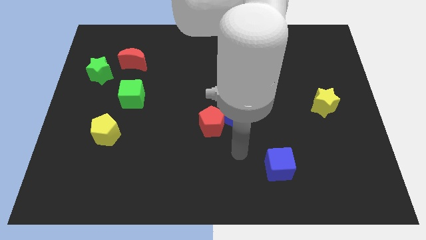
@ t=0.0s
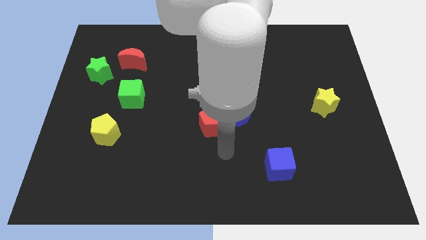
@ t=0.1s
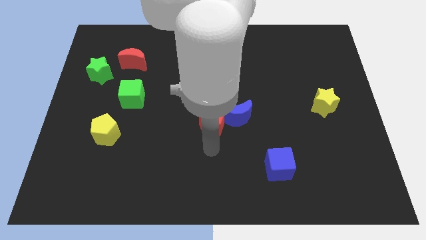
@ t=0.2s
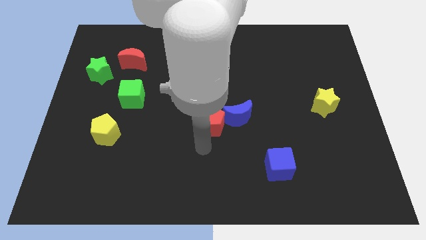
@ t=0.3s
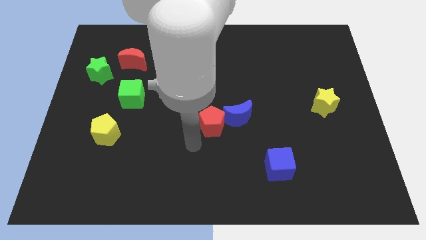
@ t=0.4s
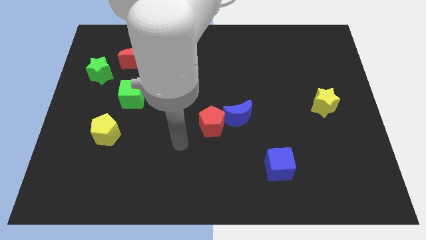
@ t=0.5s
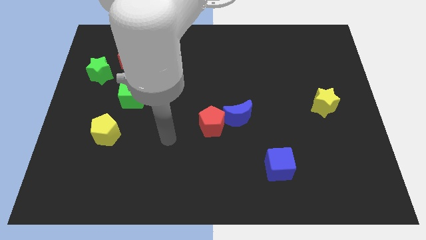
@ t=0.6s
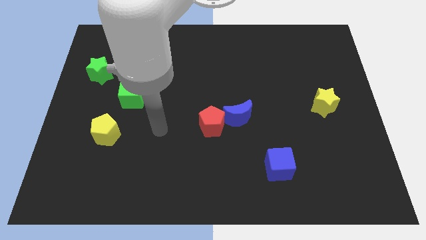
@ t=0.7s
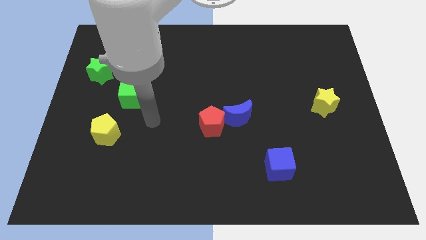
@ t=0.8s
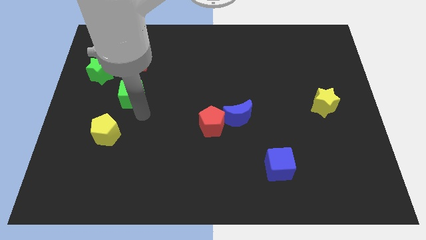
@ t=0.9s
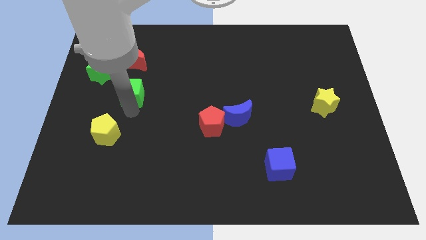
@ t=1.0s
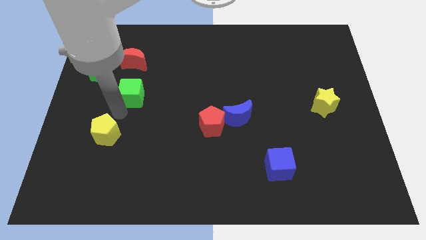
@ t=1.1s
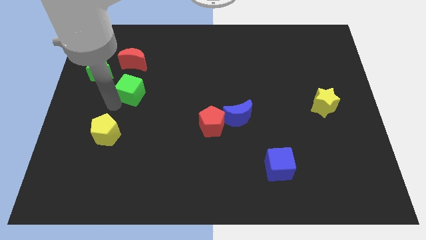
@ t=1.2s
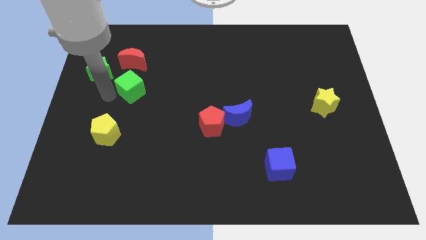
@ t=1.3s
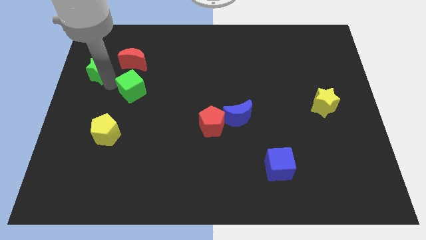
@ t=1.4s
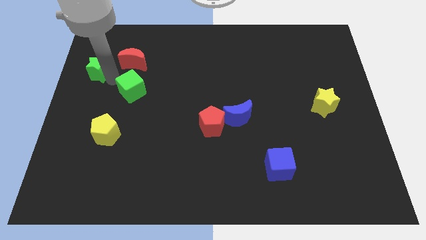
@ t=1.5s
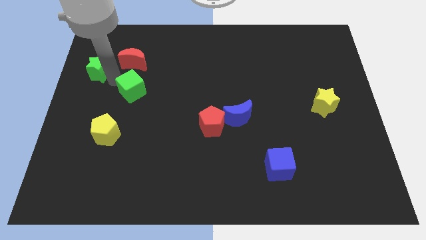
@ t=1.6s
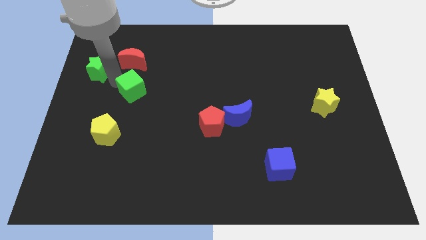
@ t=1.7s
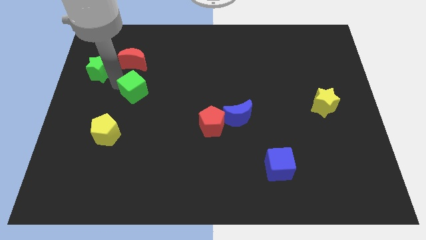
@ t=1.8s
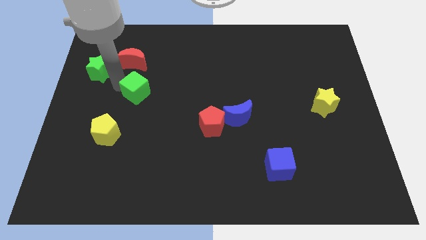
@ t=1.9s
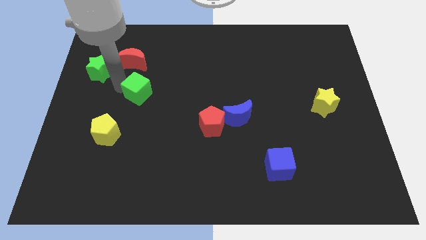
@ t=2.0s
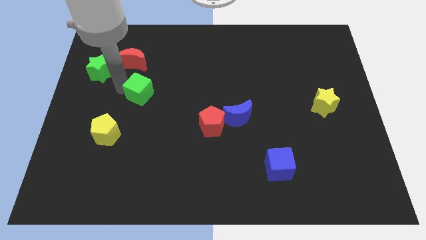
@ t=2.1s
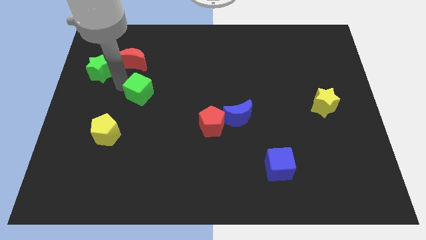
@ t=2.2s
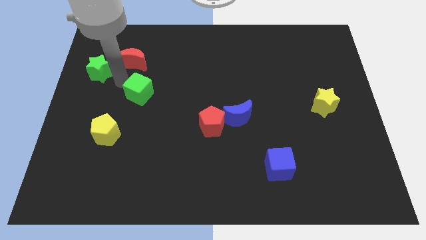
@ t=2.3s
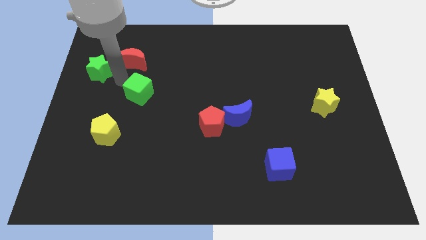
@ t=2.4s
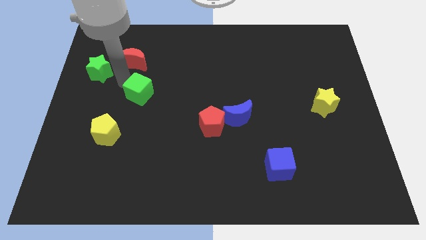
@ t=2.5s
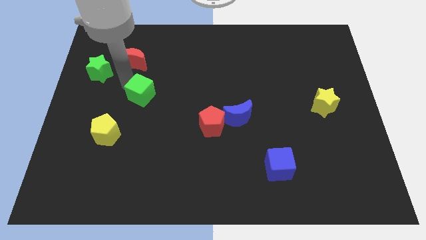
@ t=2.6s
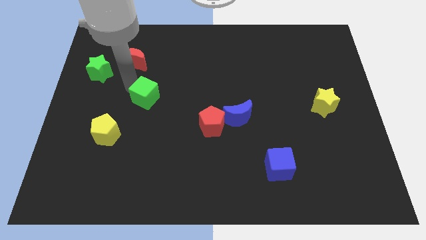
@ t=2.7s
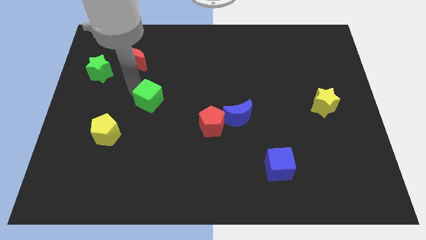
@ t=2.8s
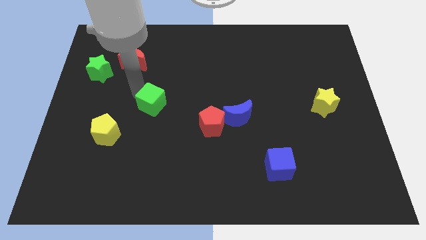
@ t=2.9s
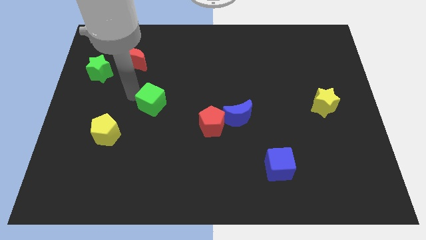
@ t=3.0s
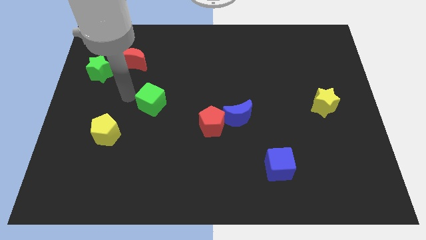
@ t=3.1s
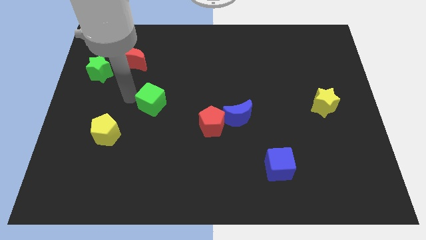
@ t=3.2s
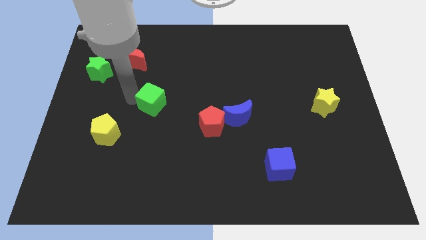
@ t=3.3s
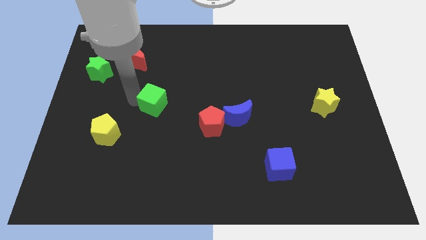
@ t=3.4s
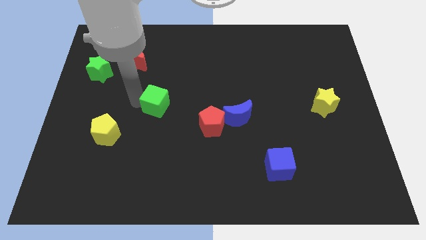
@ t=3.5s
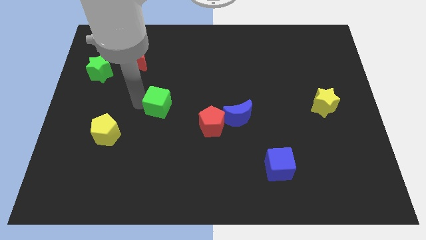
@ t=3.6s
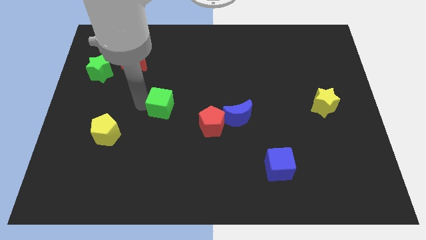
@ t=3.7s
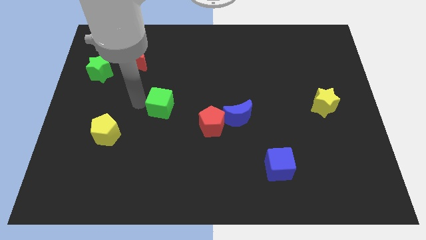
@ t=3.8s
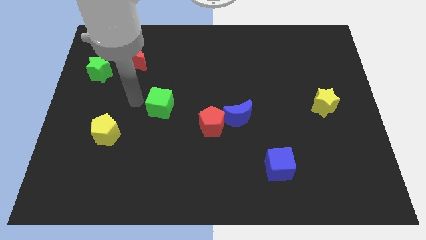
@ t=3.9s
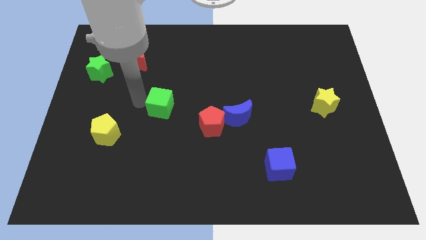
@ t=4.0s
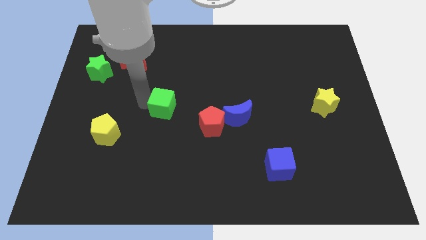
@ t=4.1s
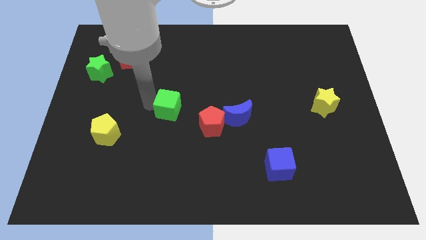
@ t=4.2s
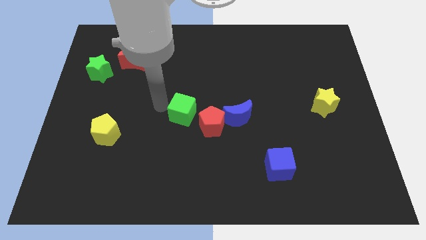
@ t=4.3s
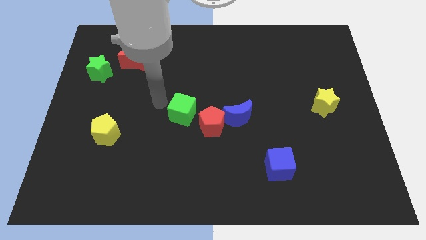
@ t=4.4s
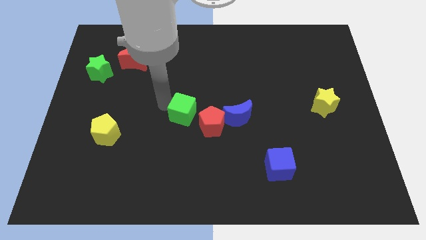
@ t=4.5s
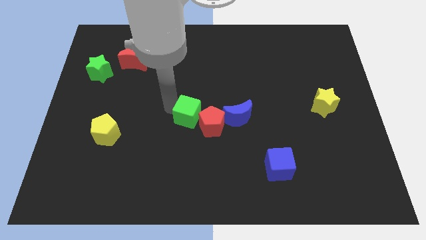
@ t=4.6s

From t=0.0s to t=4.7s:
move the green cube next to the red pentagon

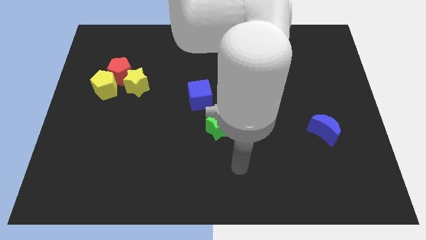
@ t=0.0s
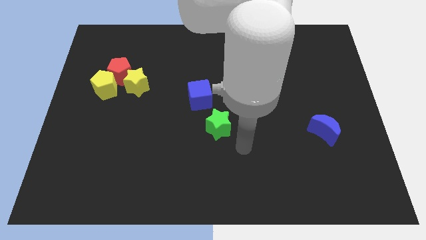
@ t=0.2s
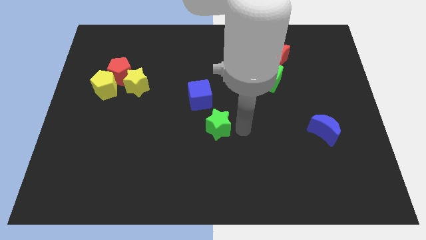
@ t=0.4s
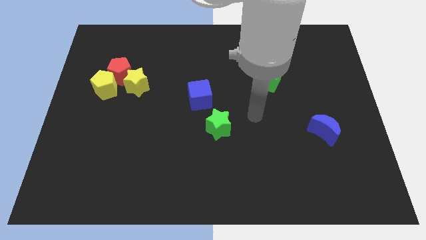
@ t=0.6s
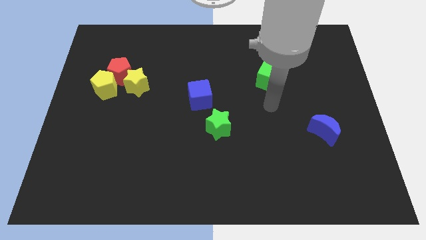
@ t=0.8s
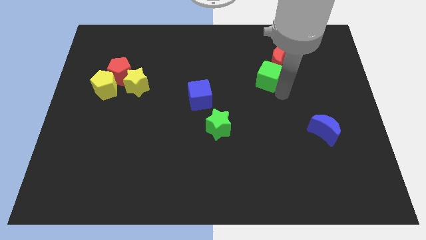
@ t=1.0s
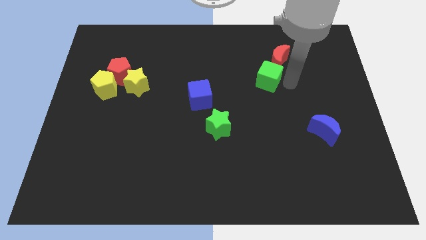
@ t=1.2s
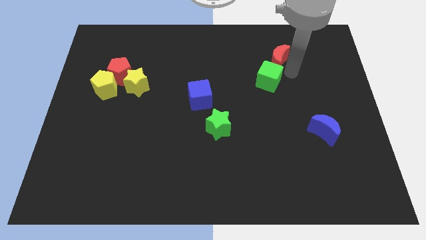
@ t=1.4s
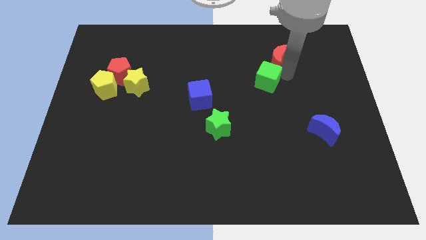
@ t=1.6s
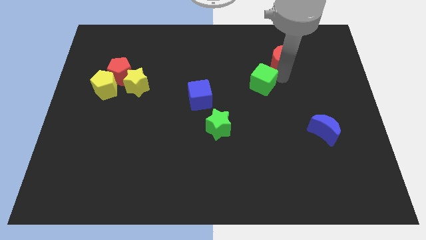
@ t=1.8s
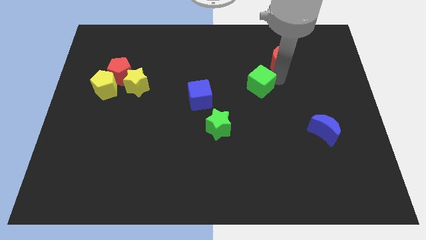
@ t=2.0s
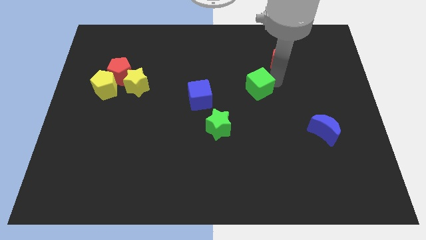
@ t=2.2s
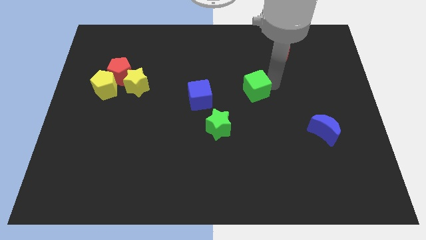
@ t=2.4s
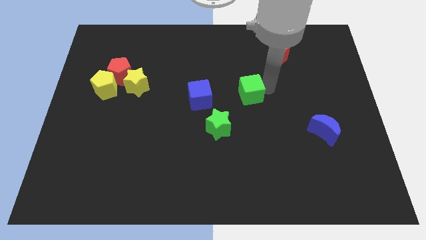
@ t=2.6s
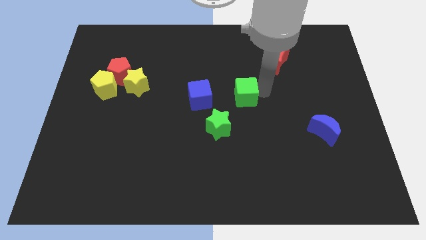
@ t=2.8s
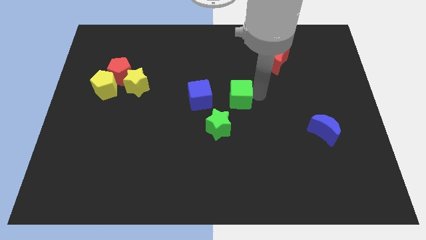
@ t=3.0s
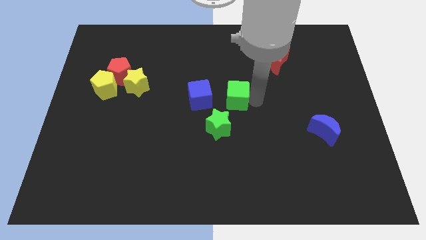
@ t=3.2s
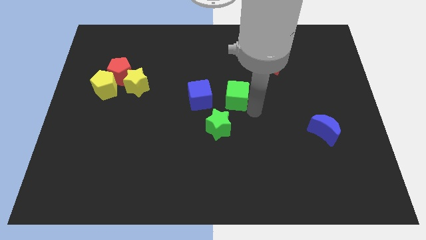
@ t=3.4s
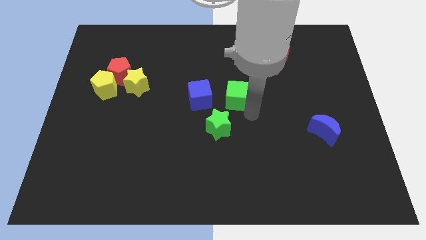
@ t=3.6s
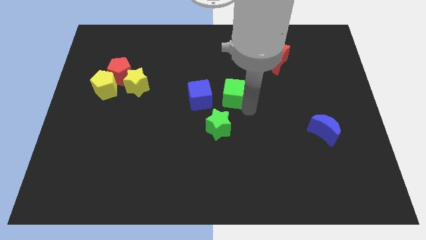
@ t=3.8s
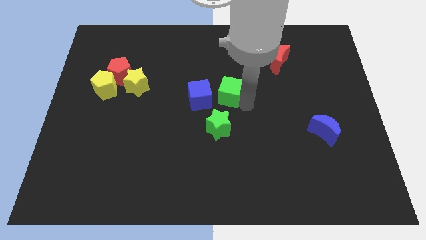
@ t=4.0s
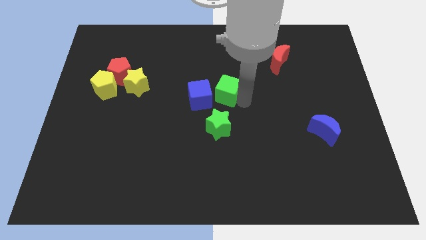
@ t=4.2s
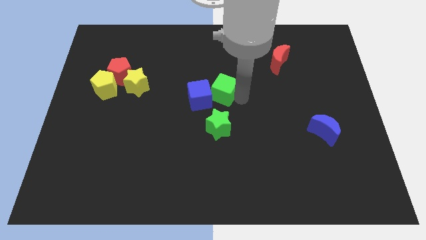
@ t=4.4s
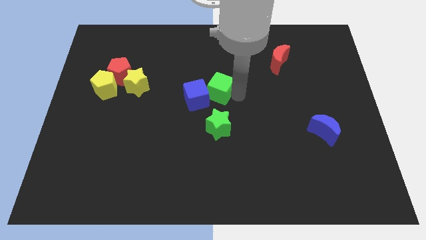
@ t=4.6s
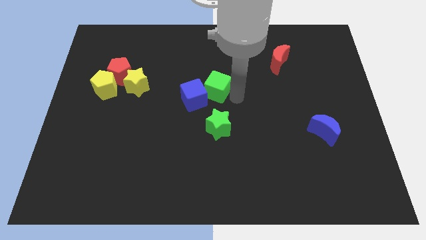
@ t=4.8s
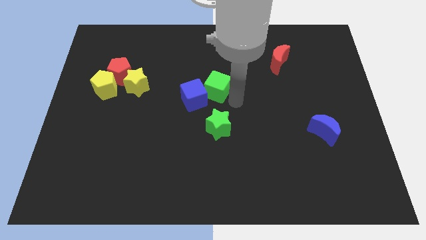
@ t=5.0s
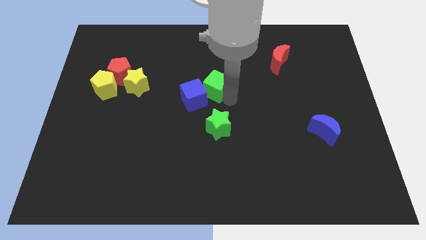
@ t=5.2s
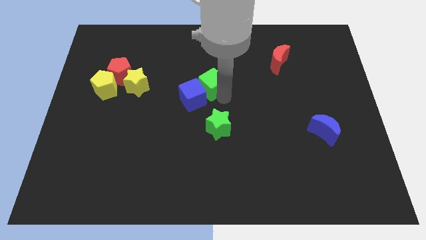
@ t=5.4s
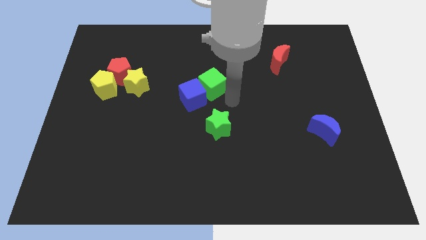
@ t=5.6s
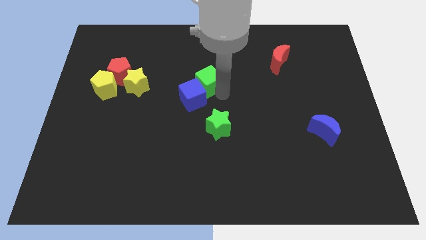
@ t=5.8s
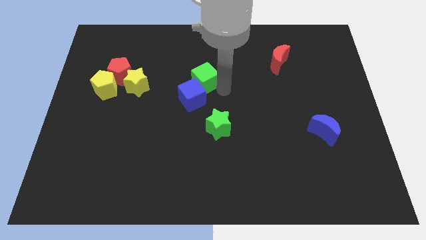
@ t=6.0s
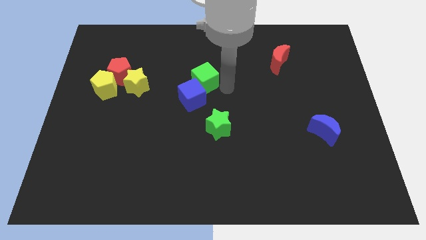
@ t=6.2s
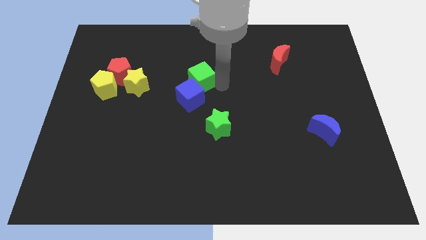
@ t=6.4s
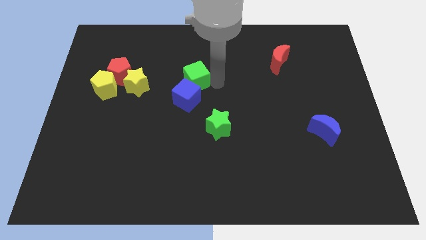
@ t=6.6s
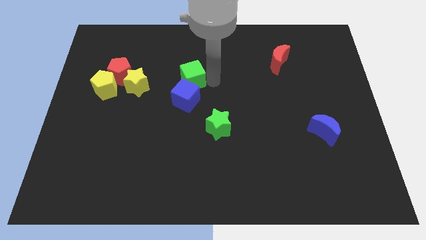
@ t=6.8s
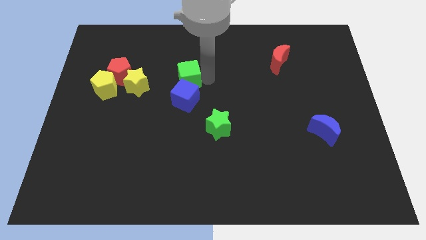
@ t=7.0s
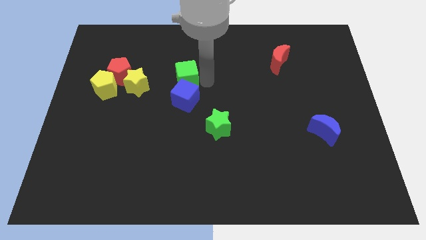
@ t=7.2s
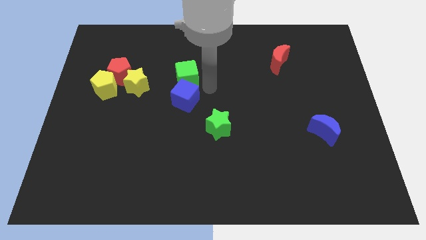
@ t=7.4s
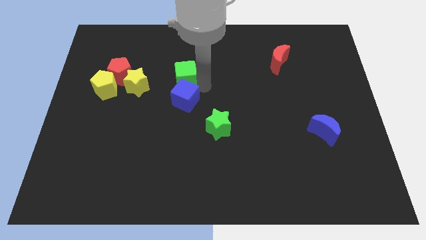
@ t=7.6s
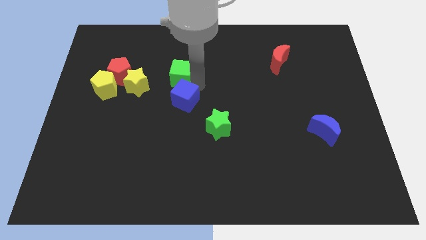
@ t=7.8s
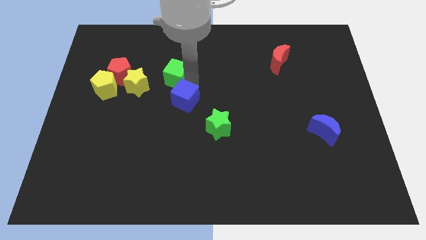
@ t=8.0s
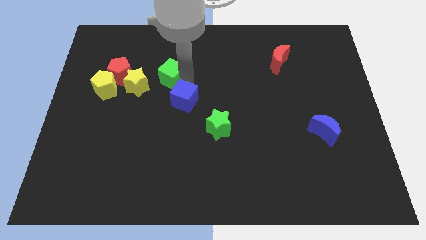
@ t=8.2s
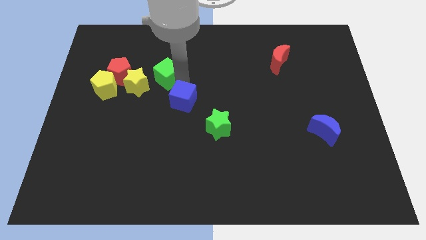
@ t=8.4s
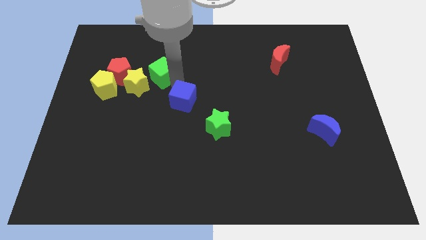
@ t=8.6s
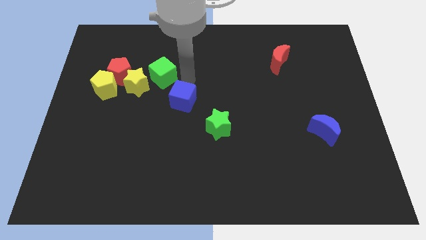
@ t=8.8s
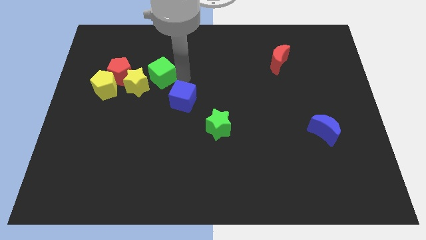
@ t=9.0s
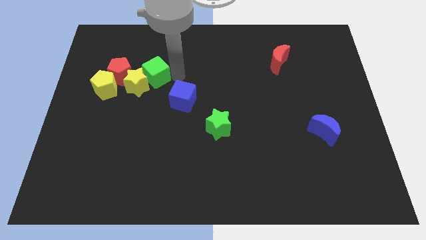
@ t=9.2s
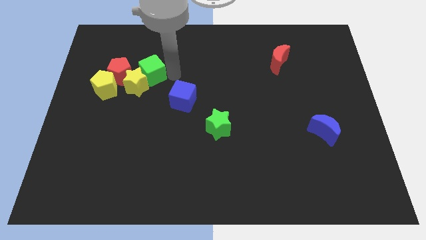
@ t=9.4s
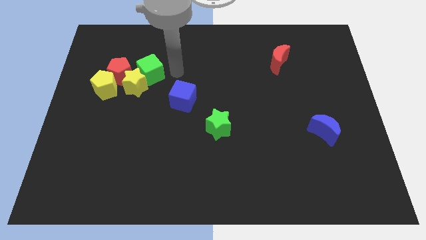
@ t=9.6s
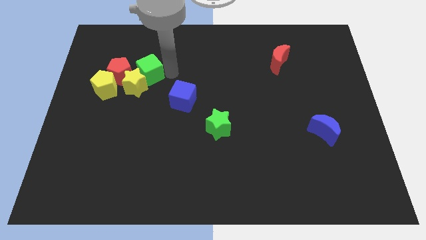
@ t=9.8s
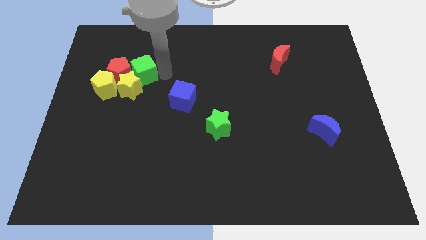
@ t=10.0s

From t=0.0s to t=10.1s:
put the green cube next to the red pentagon
